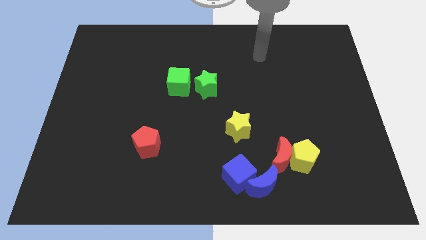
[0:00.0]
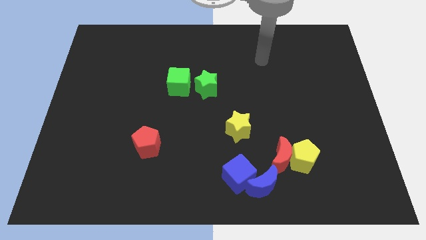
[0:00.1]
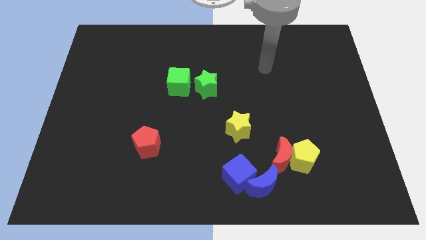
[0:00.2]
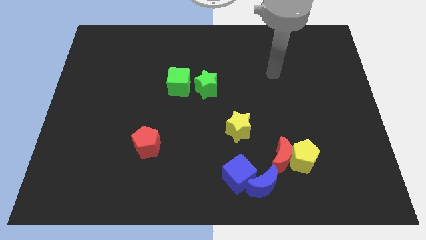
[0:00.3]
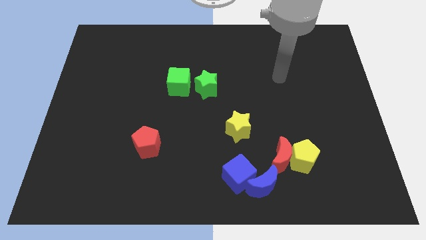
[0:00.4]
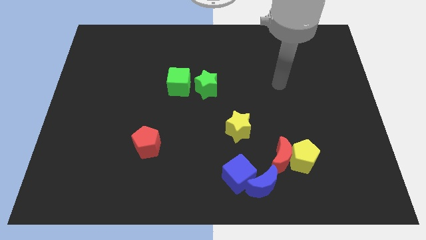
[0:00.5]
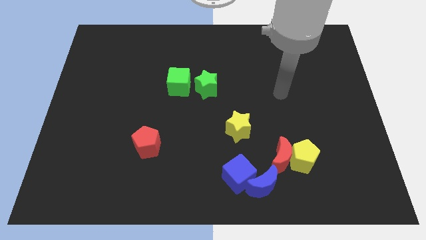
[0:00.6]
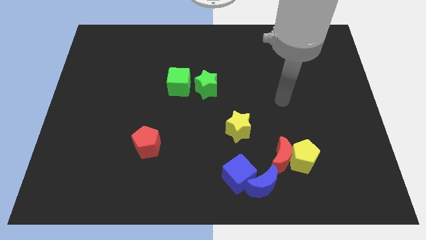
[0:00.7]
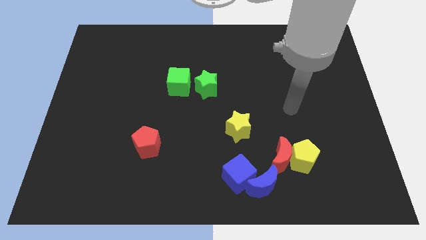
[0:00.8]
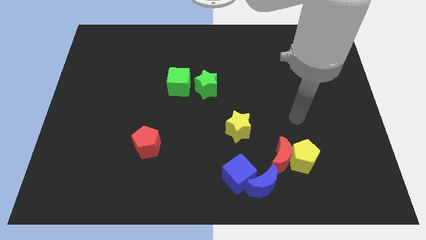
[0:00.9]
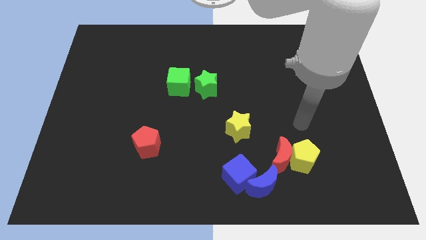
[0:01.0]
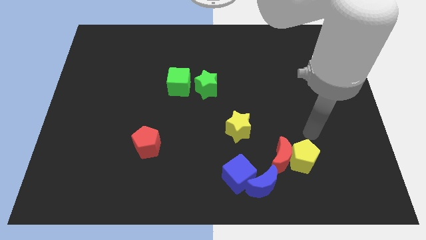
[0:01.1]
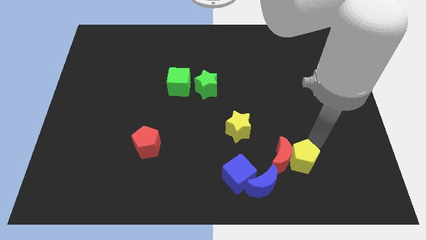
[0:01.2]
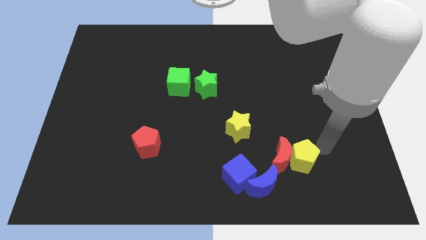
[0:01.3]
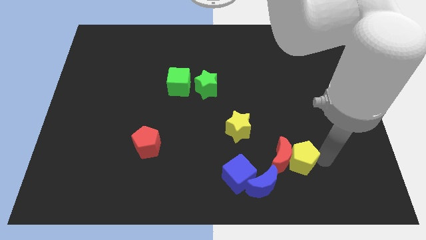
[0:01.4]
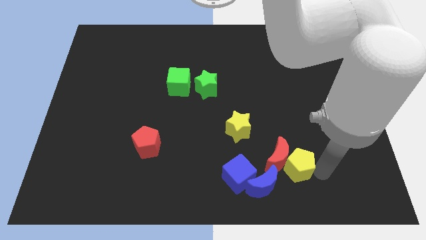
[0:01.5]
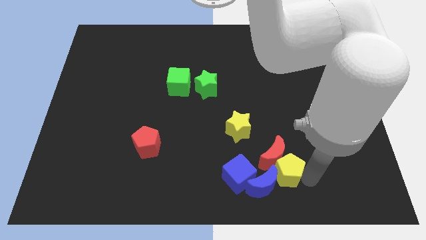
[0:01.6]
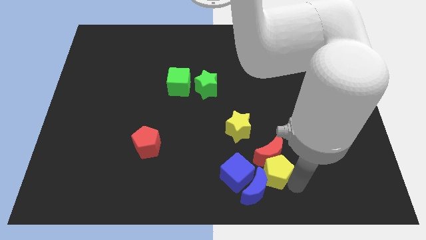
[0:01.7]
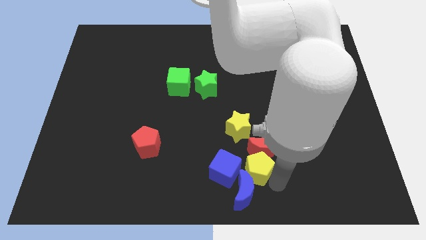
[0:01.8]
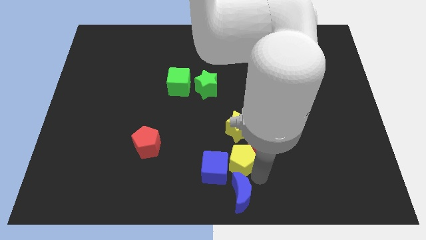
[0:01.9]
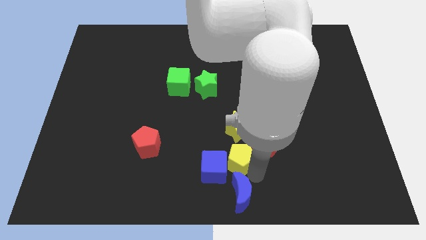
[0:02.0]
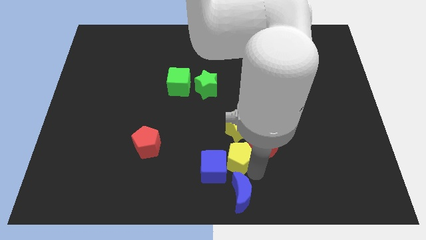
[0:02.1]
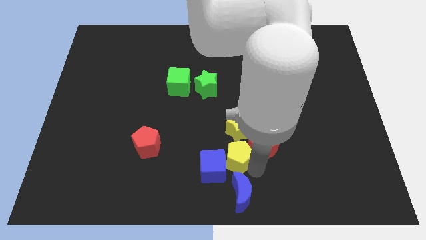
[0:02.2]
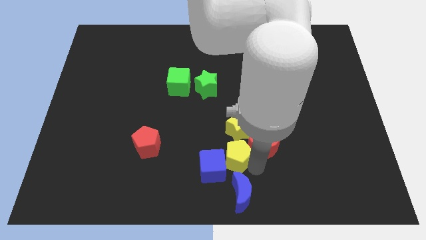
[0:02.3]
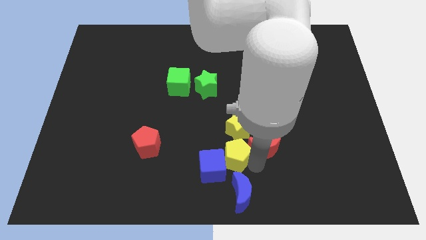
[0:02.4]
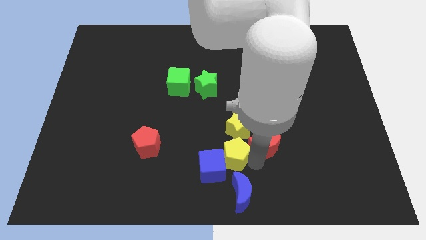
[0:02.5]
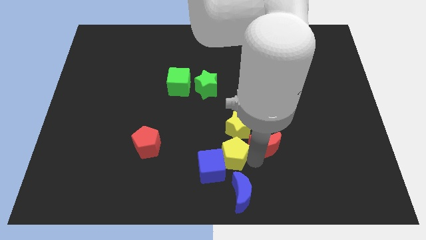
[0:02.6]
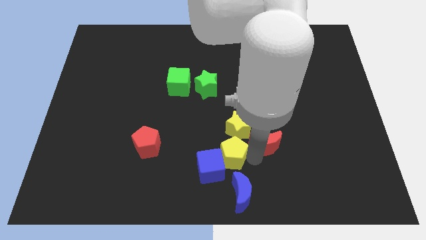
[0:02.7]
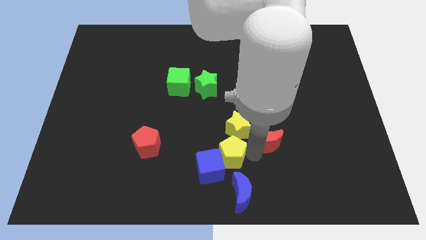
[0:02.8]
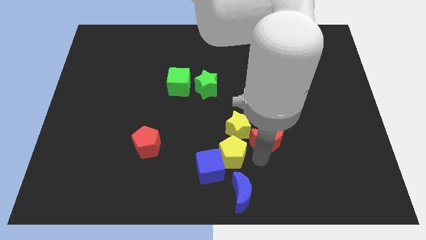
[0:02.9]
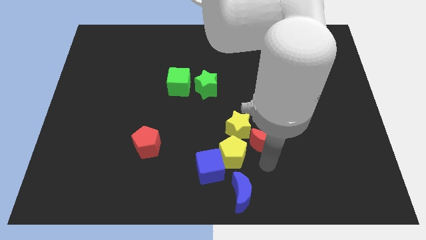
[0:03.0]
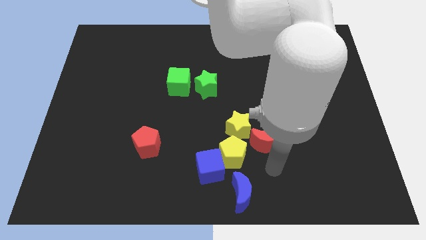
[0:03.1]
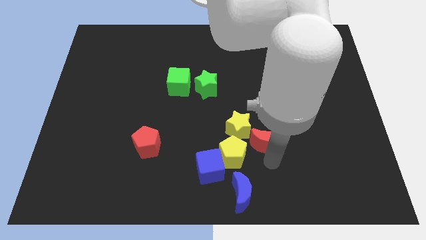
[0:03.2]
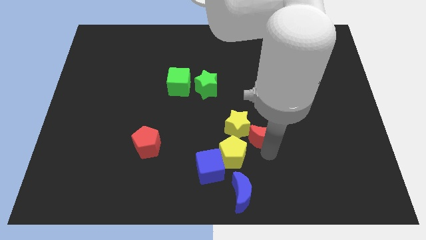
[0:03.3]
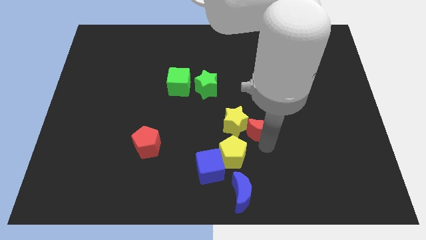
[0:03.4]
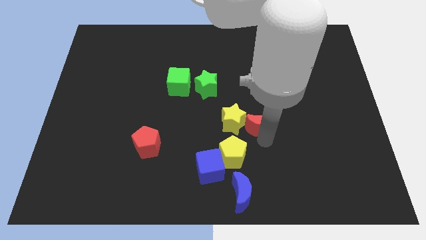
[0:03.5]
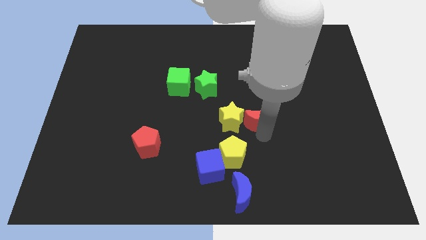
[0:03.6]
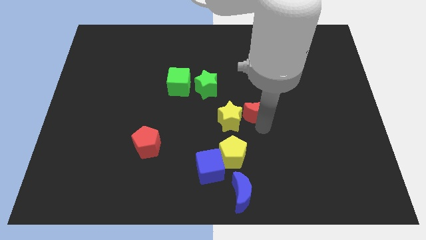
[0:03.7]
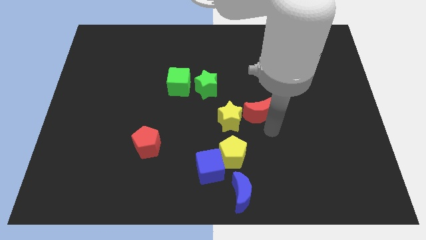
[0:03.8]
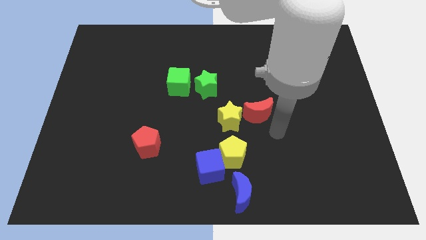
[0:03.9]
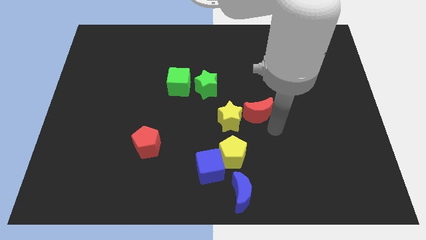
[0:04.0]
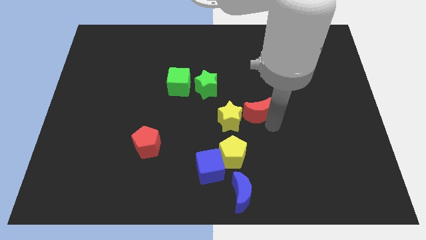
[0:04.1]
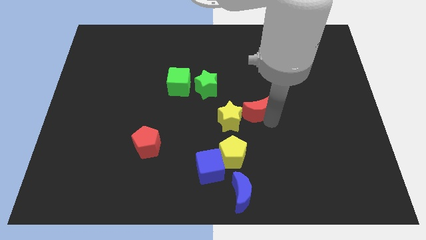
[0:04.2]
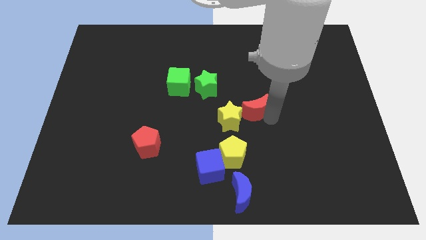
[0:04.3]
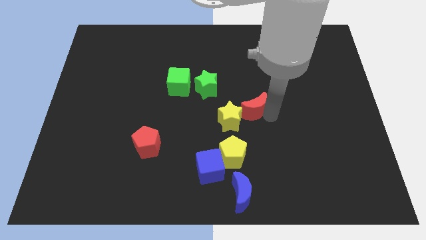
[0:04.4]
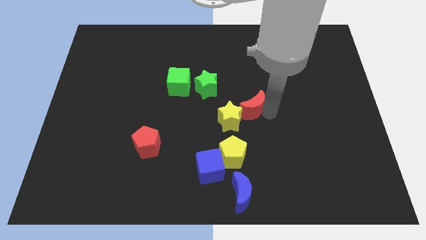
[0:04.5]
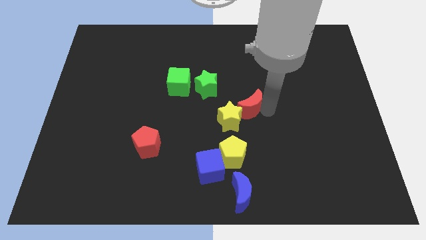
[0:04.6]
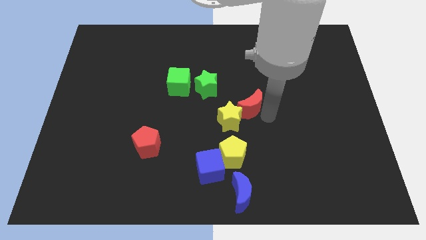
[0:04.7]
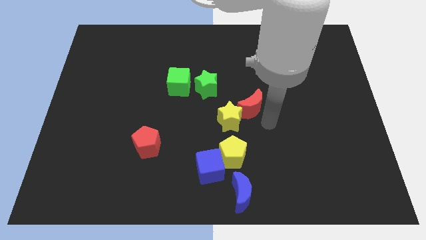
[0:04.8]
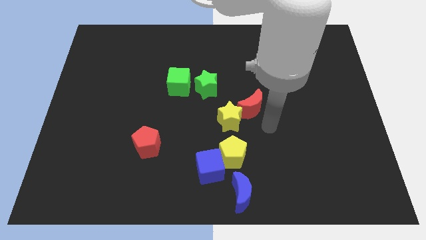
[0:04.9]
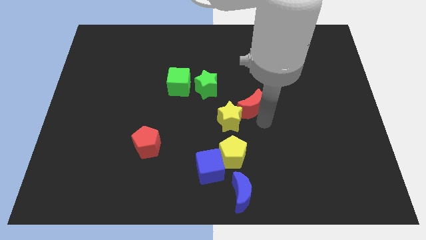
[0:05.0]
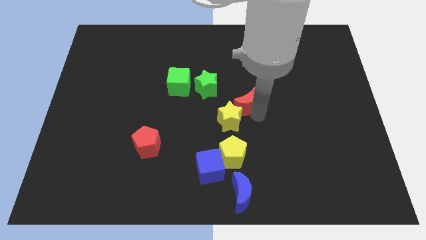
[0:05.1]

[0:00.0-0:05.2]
put the red moon to the top of the yellow star

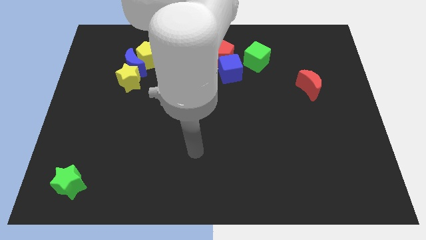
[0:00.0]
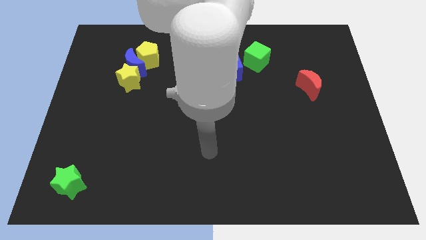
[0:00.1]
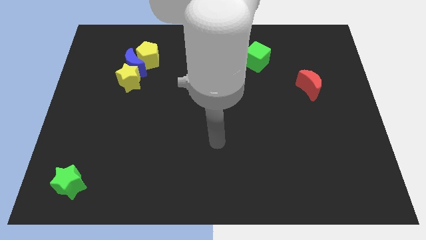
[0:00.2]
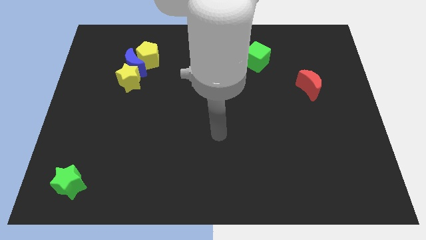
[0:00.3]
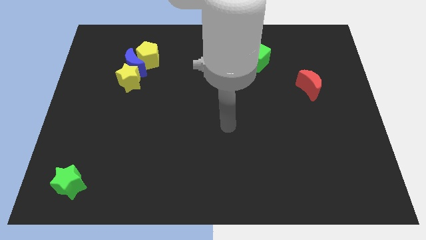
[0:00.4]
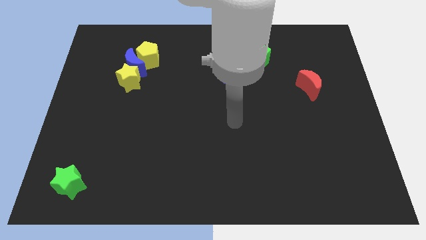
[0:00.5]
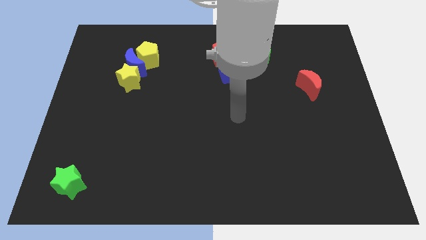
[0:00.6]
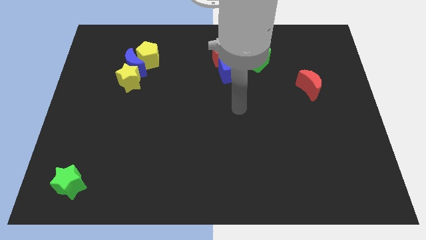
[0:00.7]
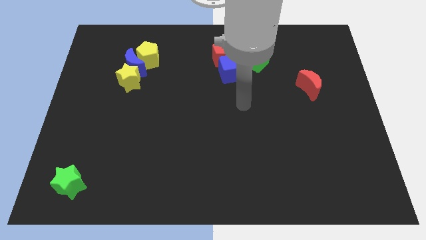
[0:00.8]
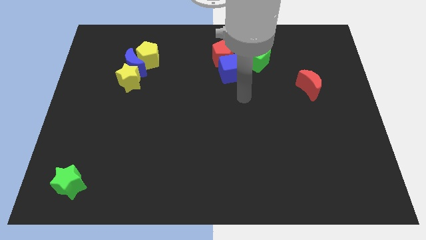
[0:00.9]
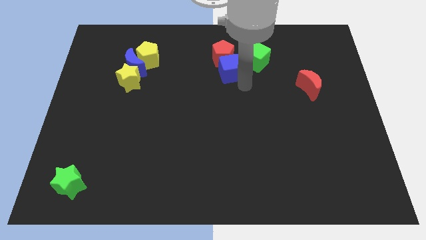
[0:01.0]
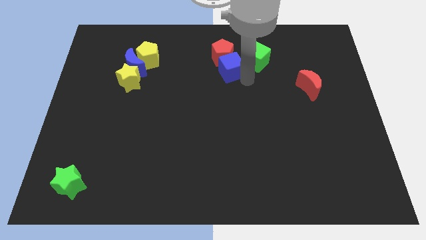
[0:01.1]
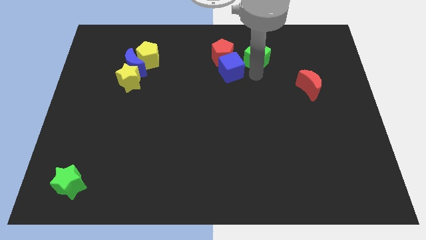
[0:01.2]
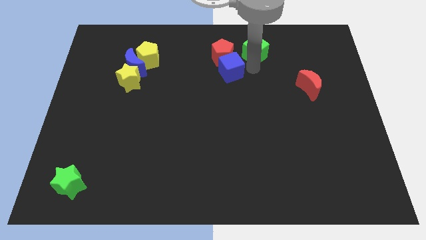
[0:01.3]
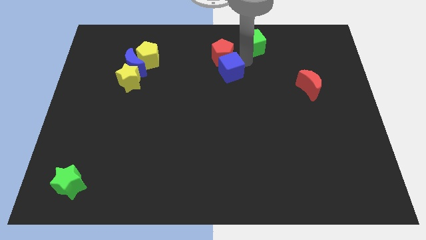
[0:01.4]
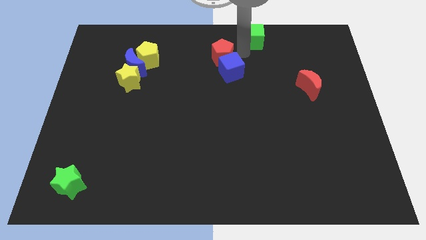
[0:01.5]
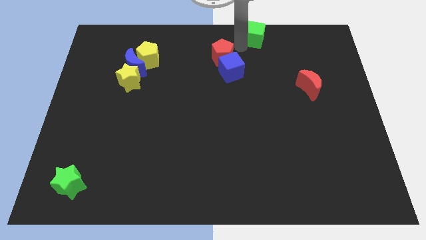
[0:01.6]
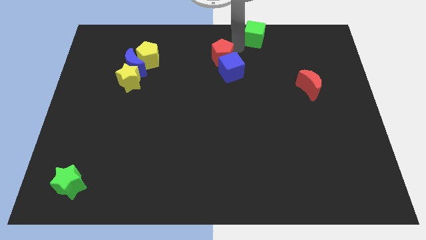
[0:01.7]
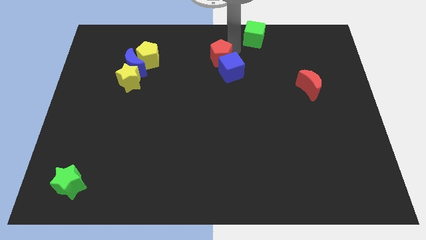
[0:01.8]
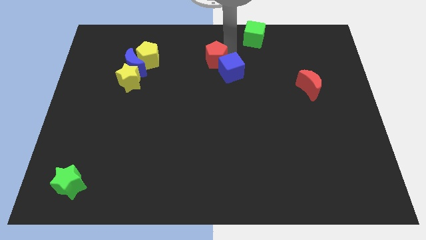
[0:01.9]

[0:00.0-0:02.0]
slide the red pentagon to the left of the blue cube

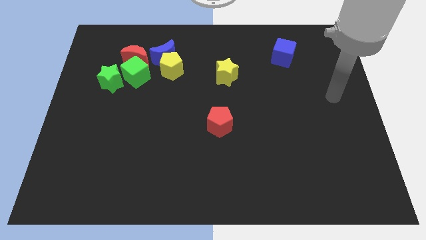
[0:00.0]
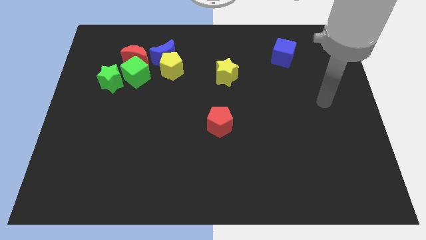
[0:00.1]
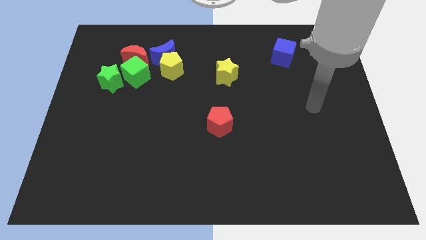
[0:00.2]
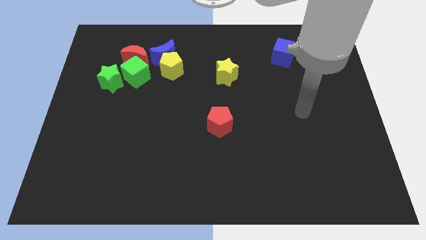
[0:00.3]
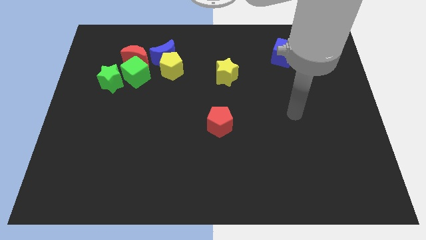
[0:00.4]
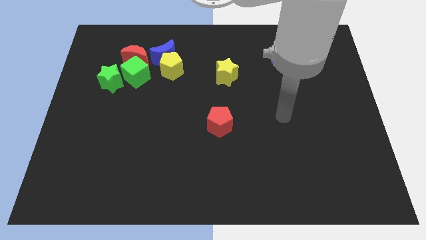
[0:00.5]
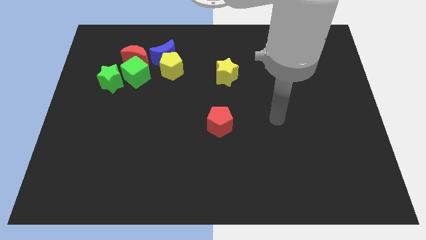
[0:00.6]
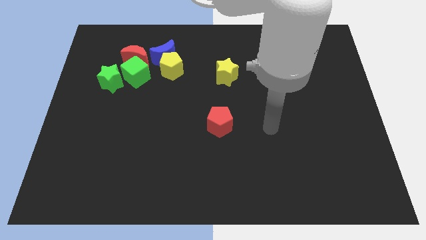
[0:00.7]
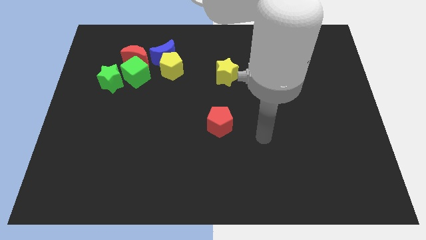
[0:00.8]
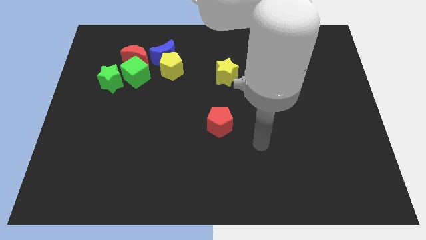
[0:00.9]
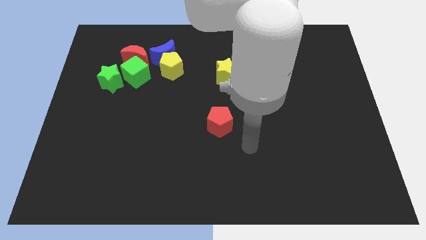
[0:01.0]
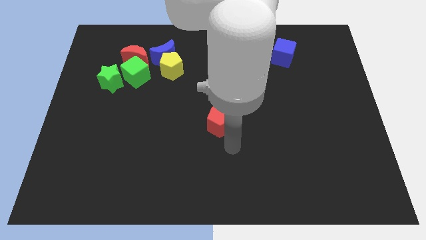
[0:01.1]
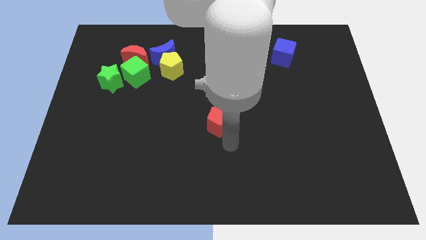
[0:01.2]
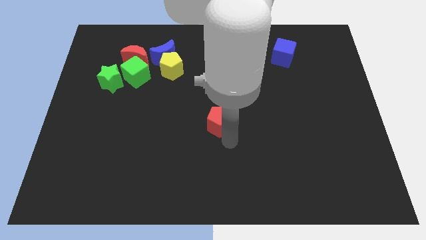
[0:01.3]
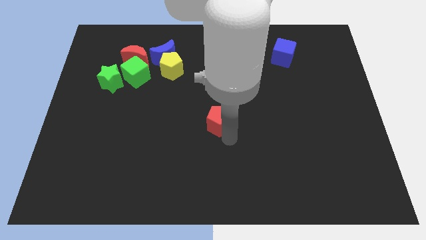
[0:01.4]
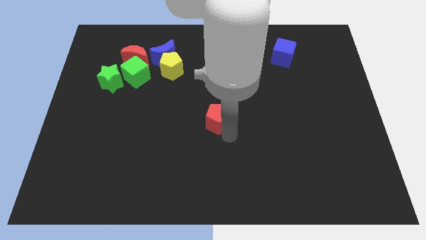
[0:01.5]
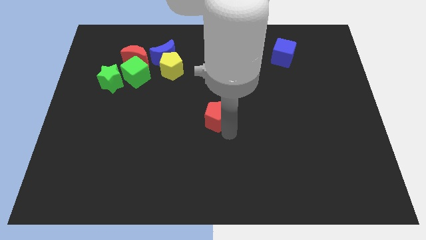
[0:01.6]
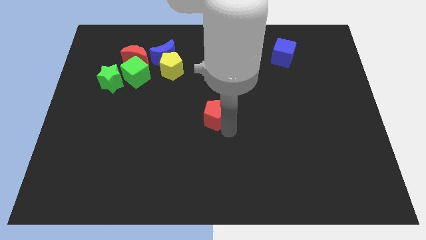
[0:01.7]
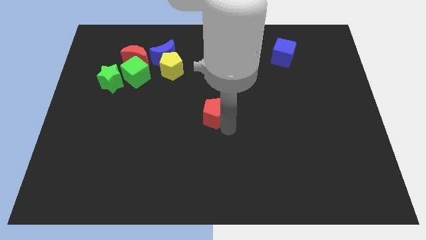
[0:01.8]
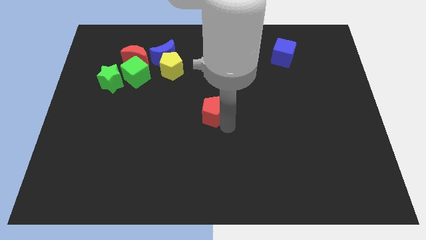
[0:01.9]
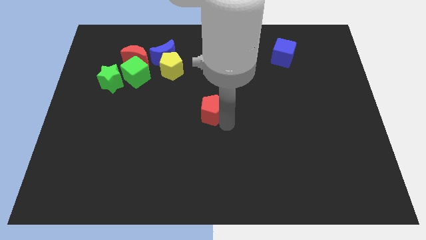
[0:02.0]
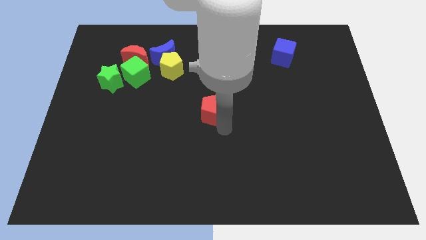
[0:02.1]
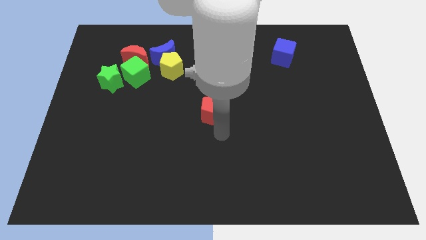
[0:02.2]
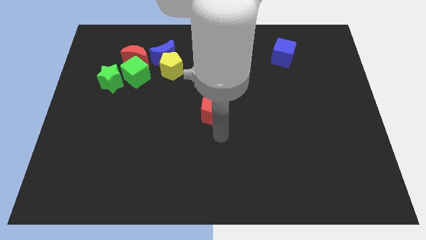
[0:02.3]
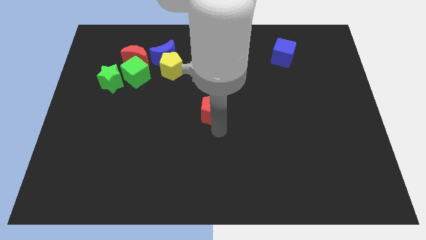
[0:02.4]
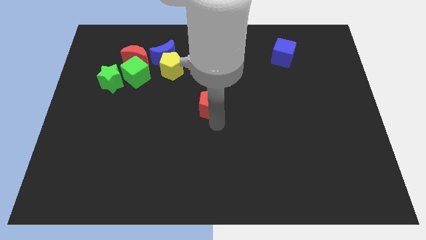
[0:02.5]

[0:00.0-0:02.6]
push the red pentagon diagonally down and to the left of the yellow star
